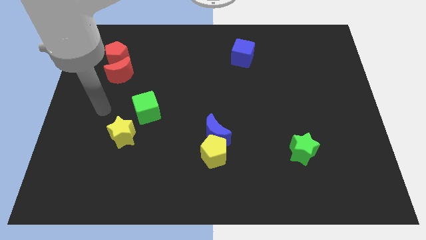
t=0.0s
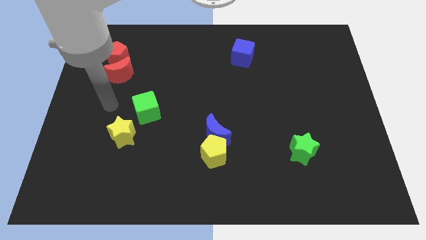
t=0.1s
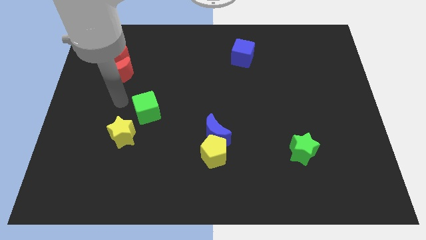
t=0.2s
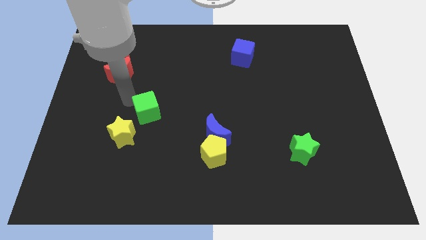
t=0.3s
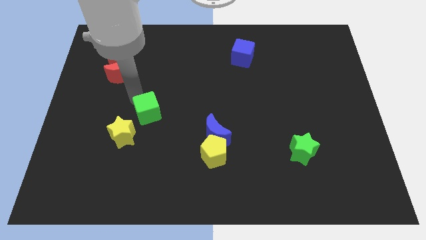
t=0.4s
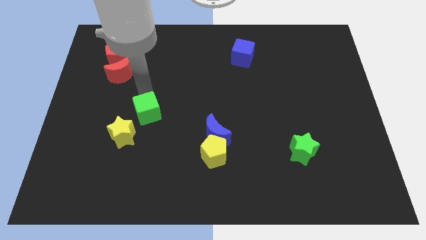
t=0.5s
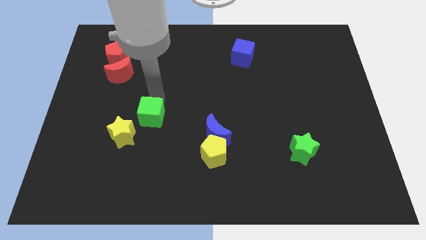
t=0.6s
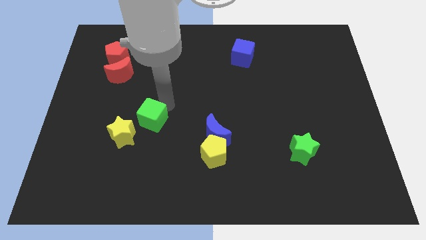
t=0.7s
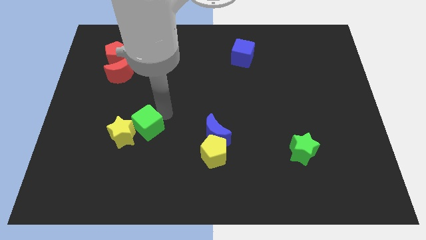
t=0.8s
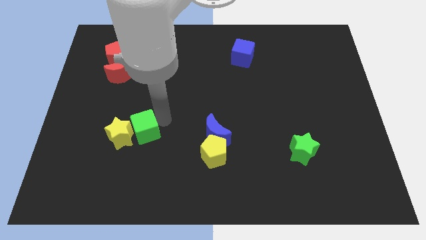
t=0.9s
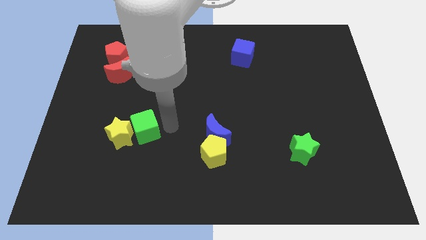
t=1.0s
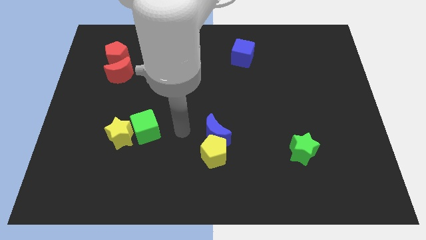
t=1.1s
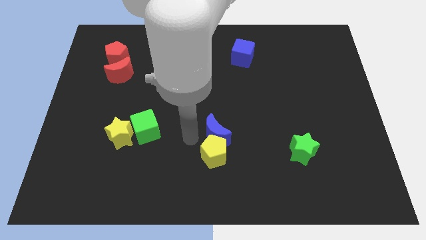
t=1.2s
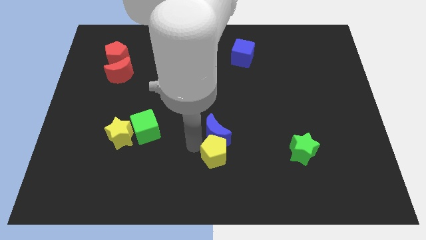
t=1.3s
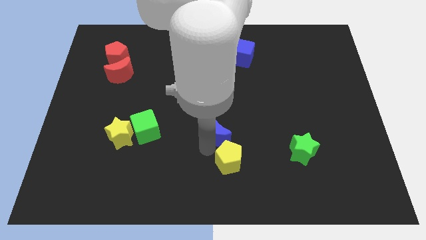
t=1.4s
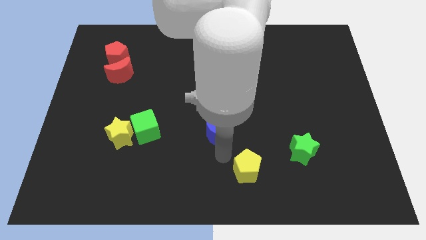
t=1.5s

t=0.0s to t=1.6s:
move the blue moon away from the yellow pentagon

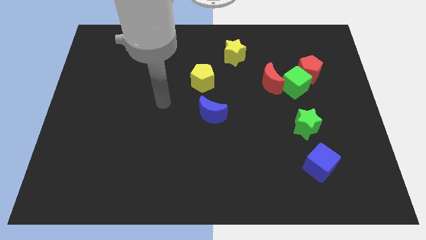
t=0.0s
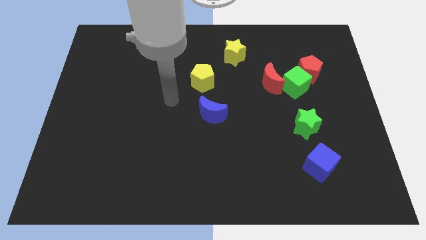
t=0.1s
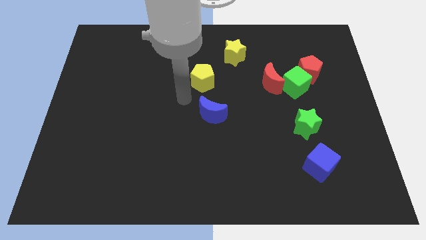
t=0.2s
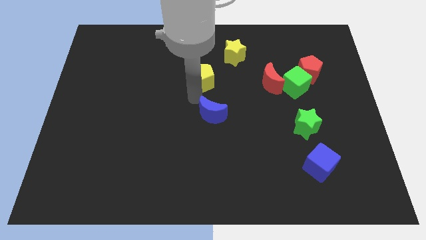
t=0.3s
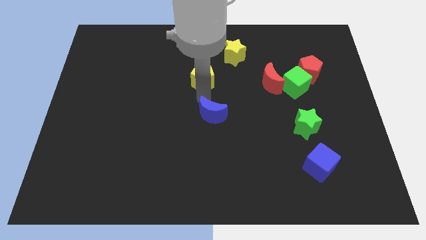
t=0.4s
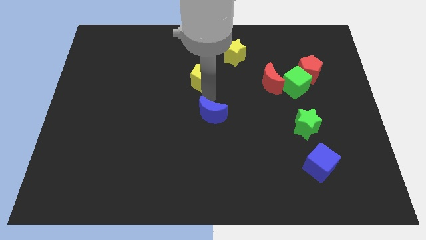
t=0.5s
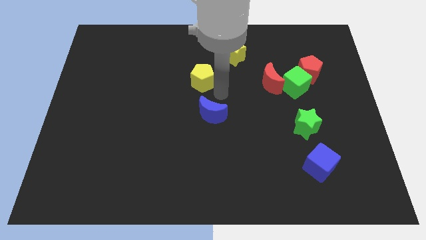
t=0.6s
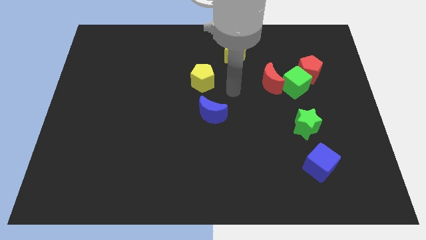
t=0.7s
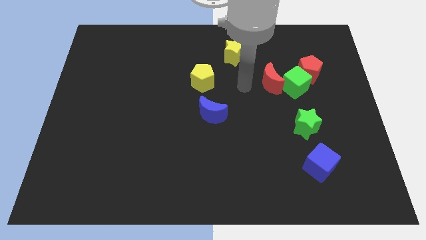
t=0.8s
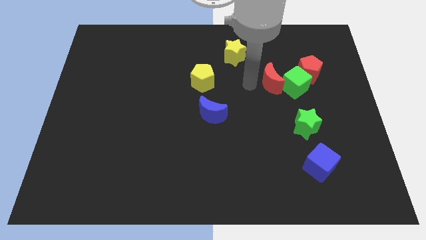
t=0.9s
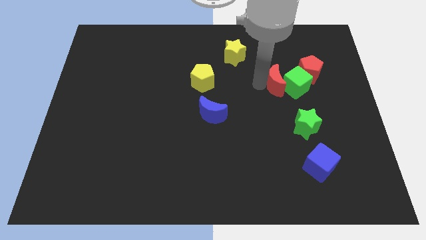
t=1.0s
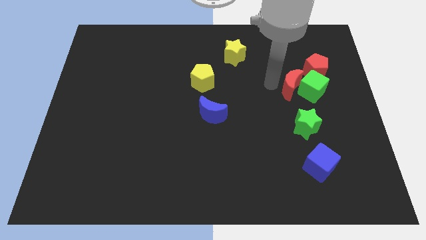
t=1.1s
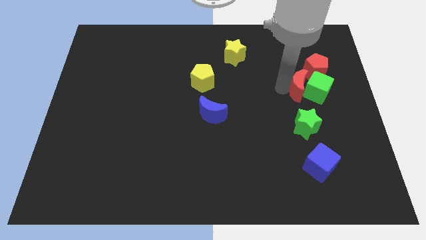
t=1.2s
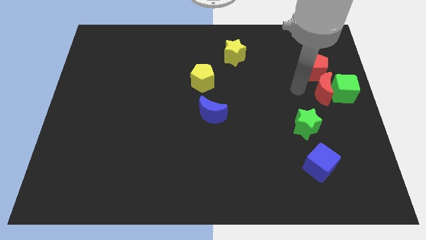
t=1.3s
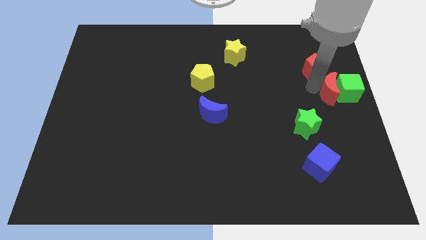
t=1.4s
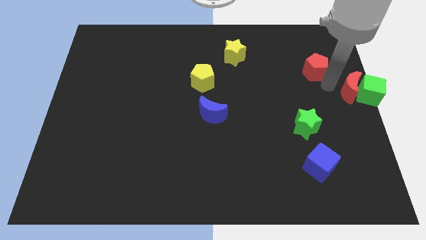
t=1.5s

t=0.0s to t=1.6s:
separate the red pentagon from the green cube

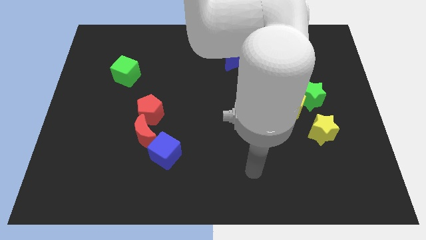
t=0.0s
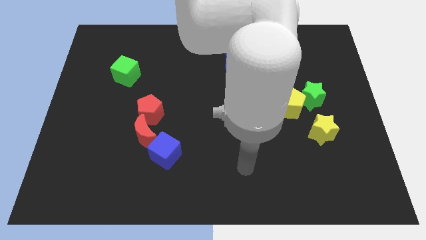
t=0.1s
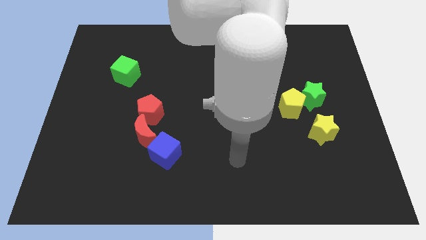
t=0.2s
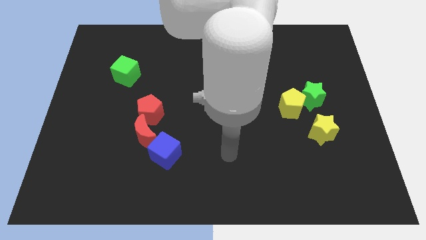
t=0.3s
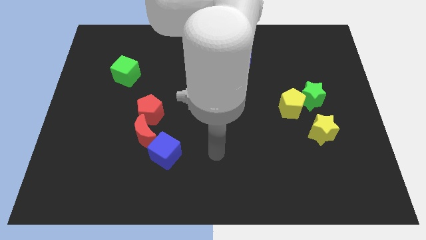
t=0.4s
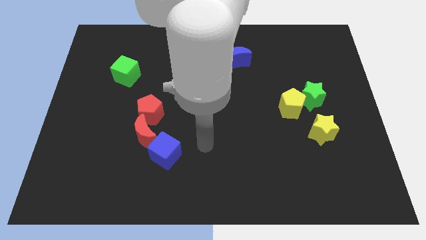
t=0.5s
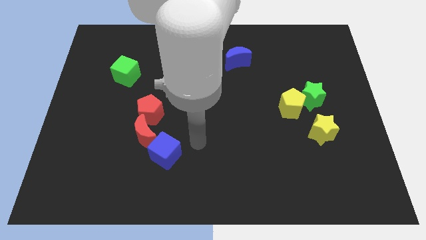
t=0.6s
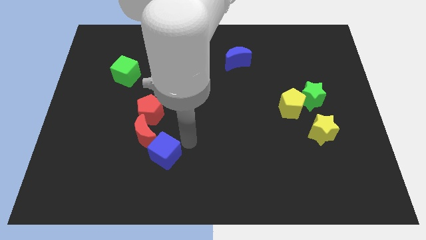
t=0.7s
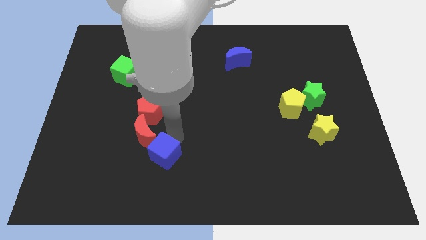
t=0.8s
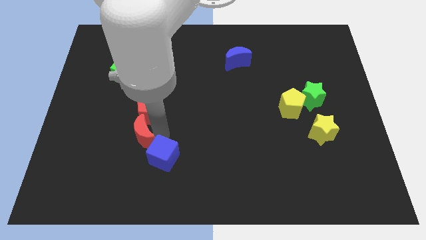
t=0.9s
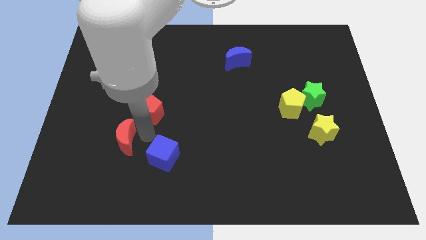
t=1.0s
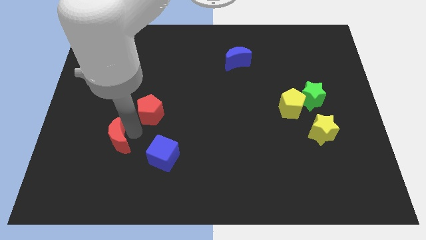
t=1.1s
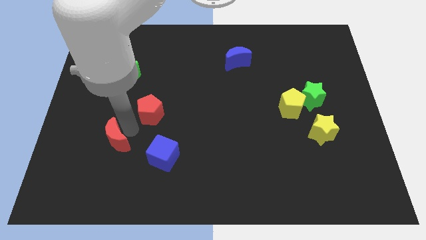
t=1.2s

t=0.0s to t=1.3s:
pull the red pentagon apart from the red moon

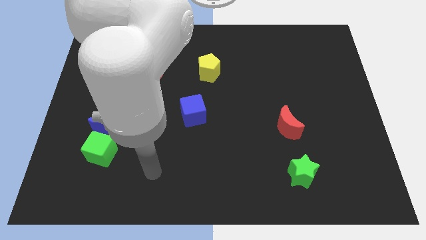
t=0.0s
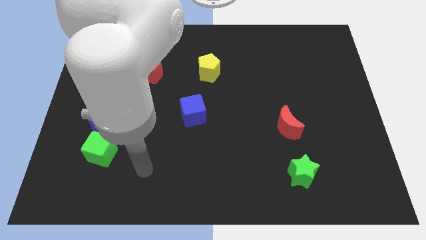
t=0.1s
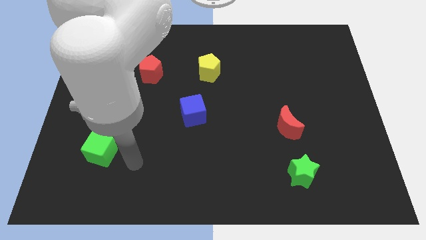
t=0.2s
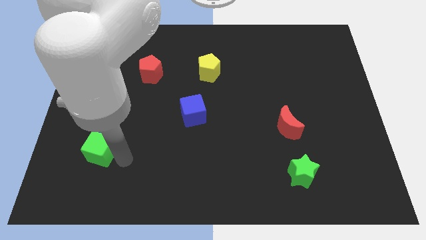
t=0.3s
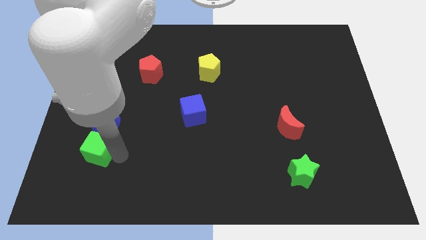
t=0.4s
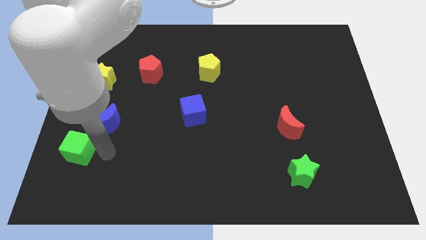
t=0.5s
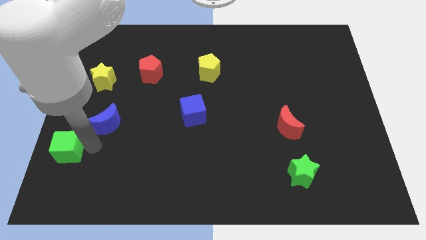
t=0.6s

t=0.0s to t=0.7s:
separate the blue moon from the green cube

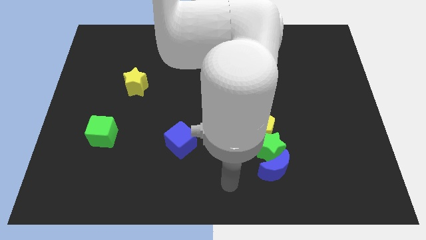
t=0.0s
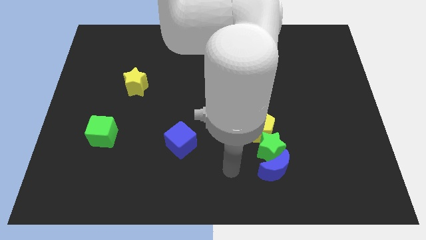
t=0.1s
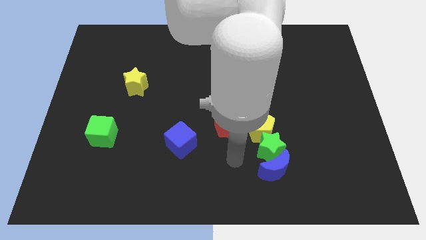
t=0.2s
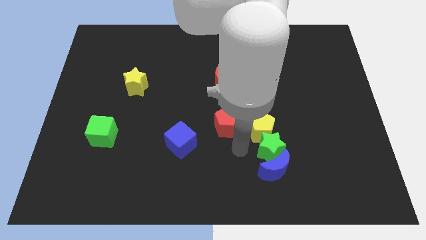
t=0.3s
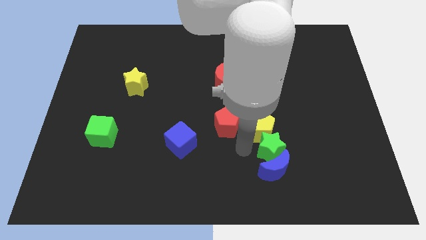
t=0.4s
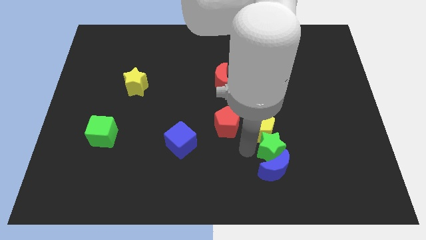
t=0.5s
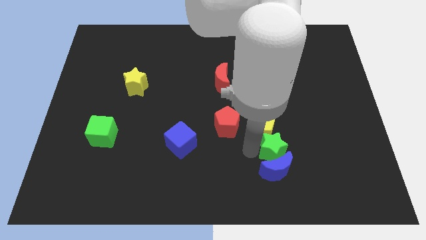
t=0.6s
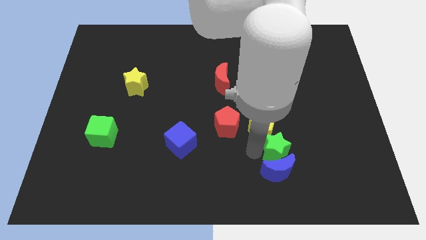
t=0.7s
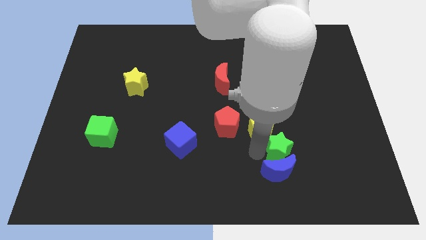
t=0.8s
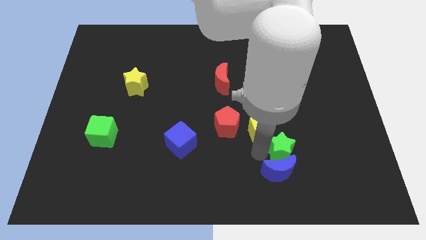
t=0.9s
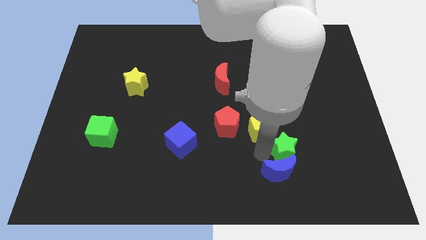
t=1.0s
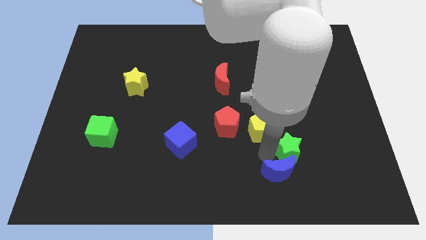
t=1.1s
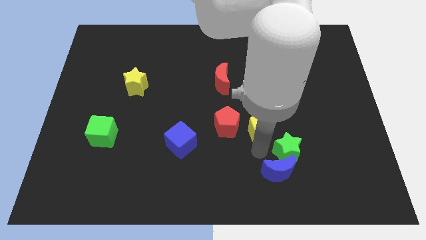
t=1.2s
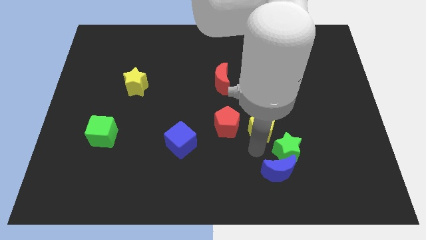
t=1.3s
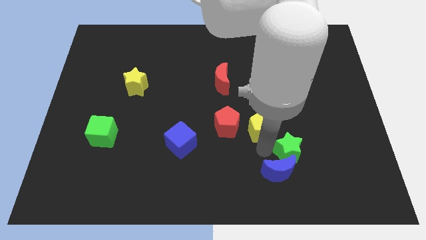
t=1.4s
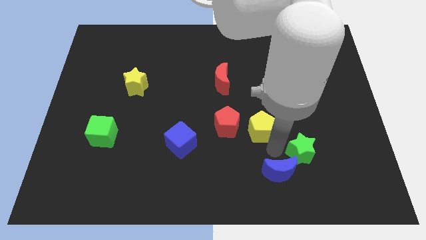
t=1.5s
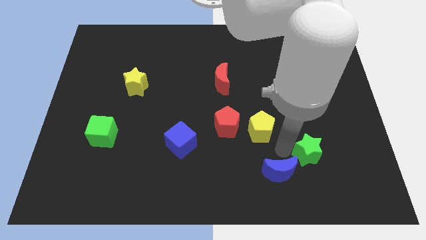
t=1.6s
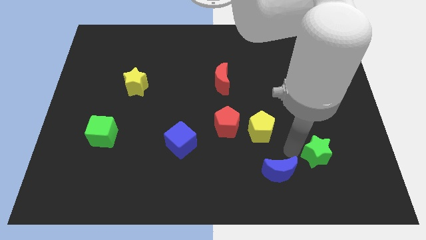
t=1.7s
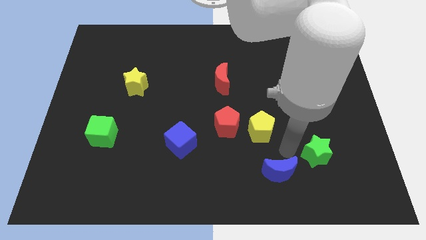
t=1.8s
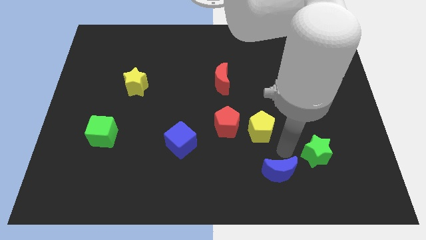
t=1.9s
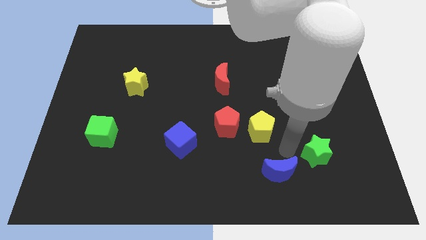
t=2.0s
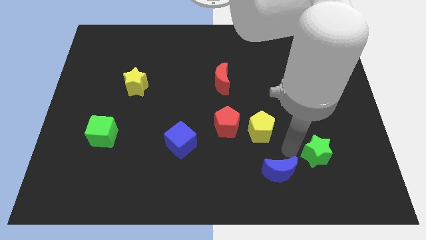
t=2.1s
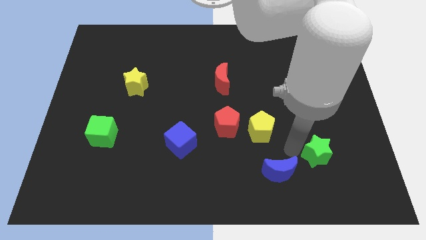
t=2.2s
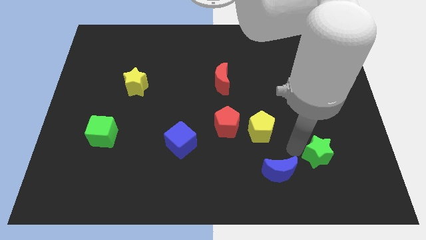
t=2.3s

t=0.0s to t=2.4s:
separate the green star from the blue moon and yellow pentagon

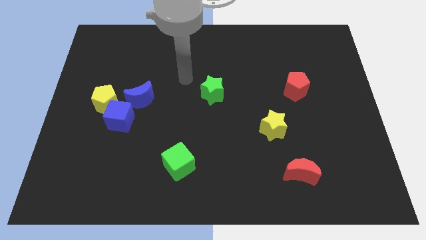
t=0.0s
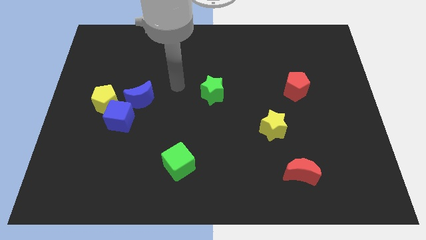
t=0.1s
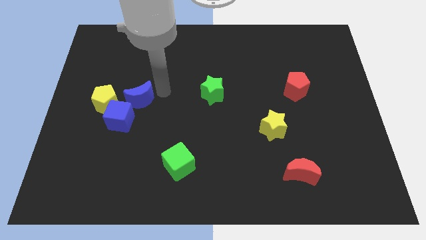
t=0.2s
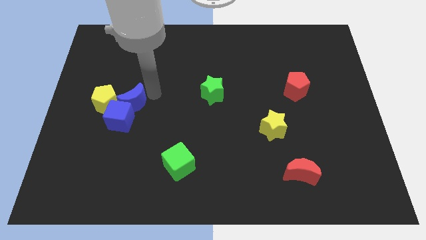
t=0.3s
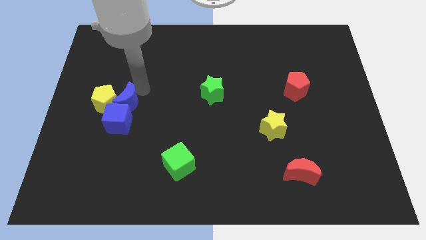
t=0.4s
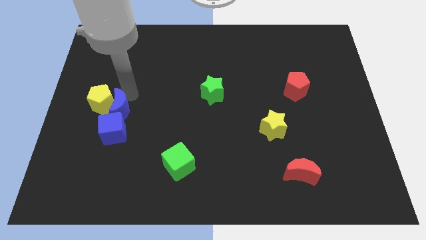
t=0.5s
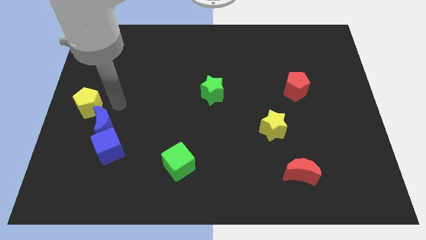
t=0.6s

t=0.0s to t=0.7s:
separate the blue cube from the yellow pentagon and blue moon

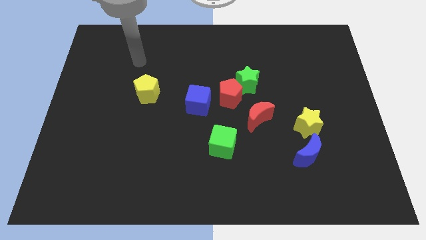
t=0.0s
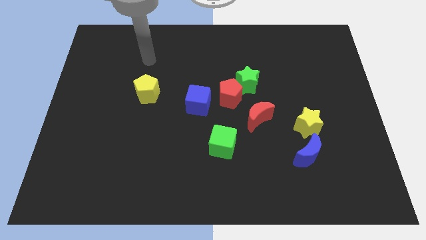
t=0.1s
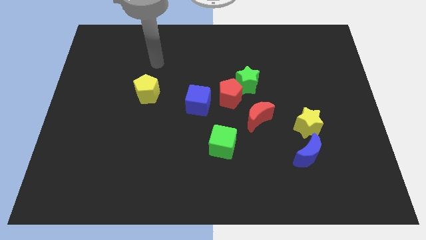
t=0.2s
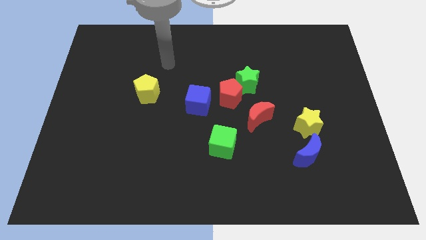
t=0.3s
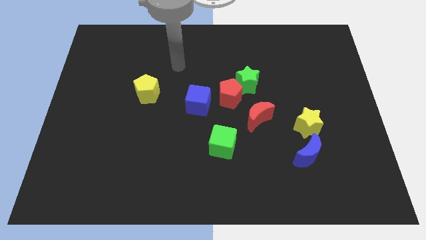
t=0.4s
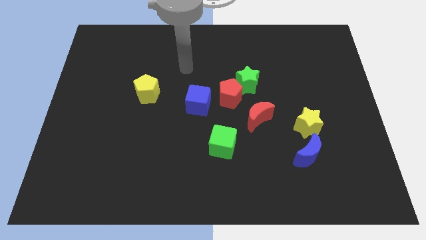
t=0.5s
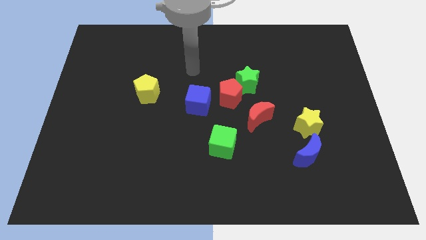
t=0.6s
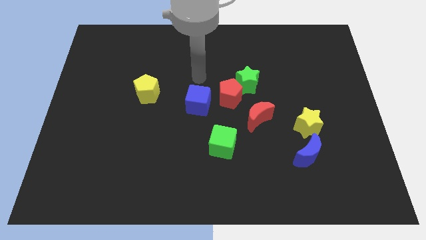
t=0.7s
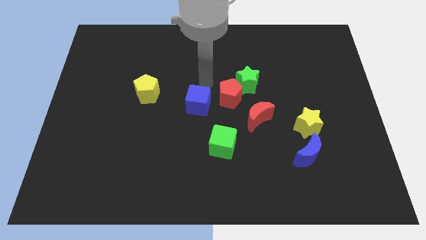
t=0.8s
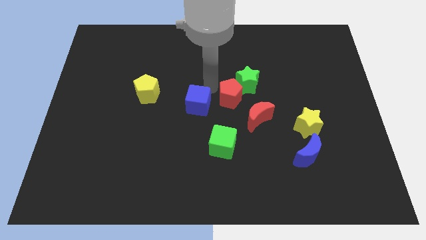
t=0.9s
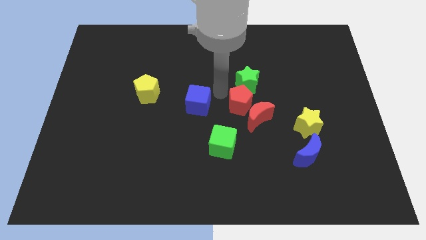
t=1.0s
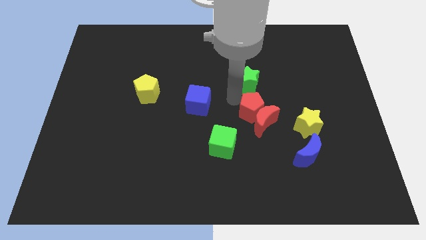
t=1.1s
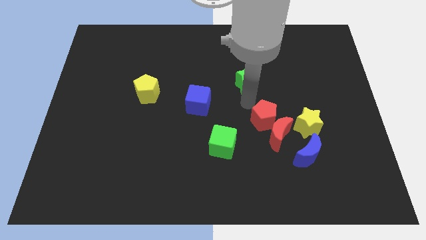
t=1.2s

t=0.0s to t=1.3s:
move the green star away from the red pentagon
